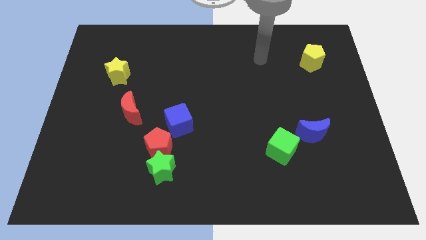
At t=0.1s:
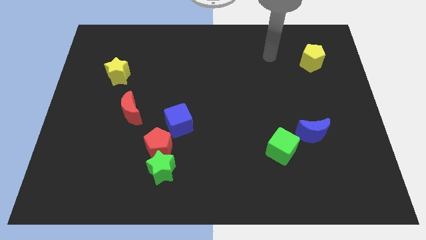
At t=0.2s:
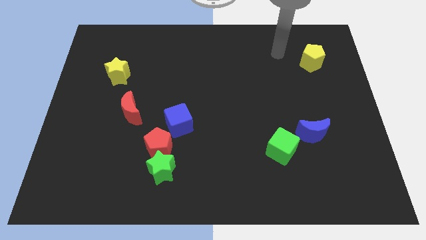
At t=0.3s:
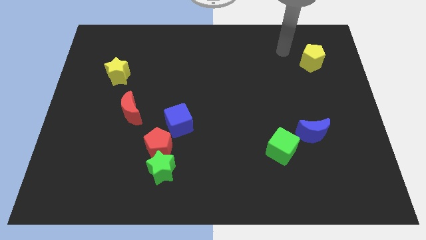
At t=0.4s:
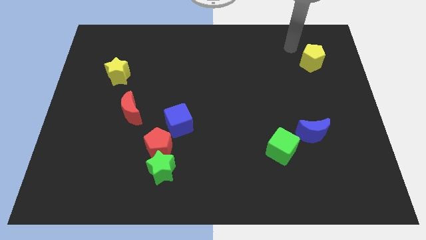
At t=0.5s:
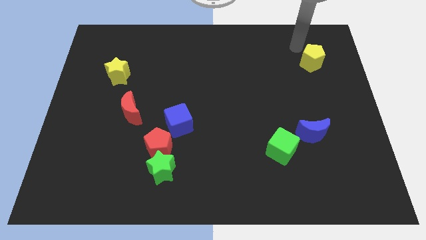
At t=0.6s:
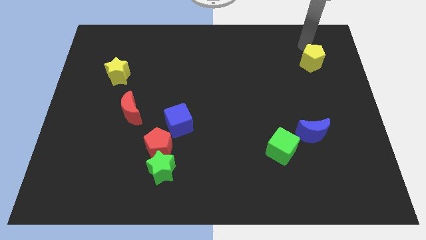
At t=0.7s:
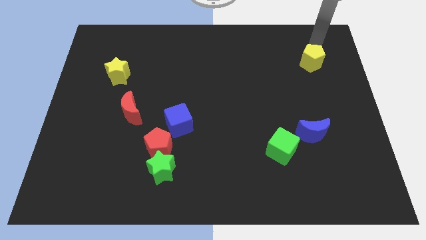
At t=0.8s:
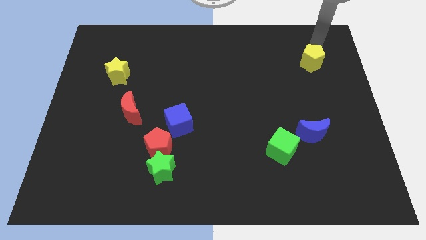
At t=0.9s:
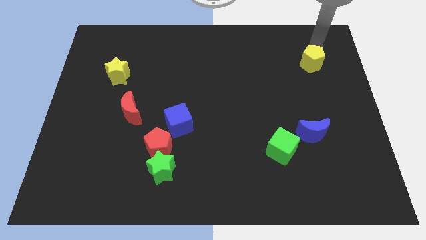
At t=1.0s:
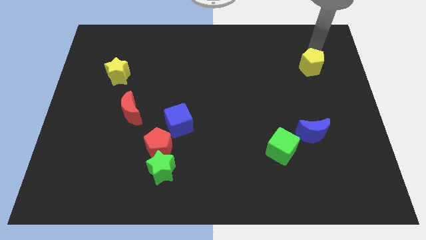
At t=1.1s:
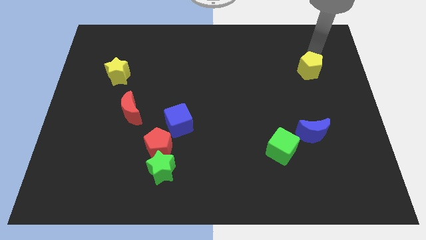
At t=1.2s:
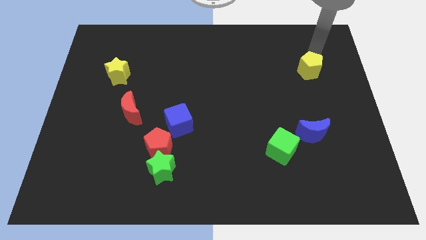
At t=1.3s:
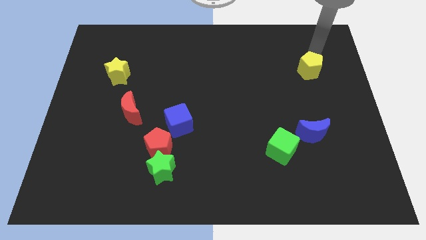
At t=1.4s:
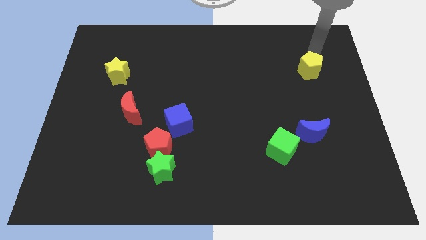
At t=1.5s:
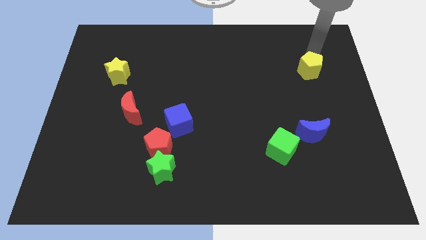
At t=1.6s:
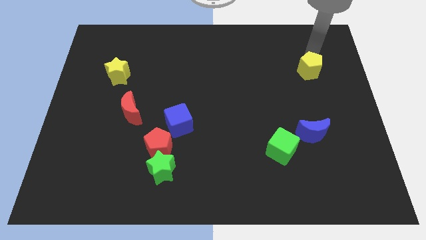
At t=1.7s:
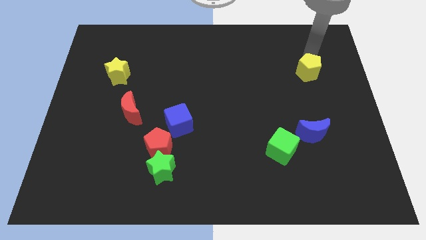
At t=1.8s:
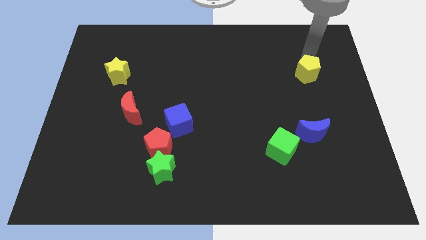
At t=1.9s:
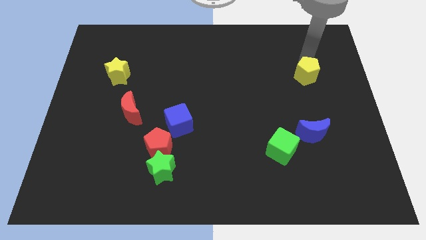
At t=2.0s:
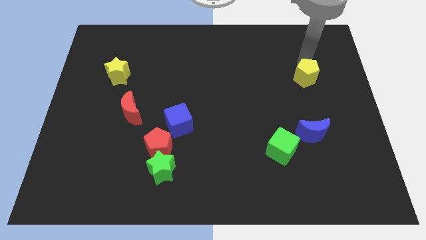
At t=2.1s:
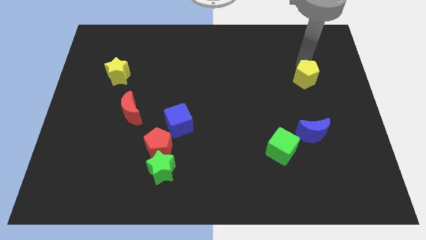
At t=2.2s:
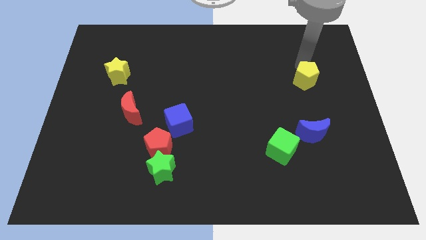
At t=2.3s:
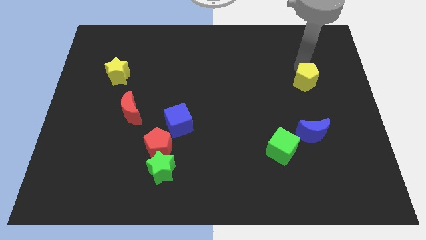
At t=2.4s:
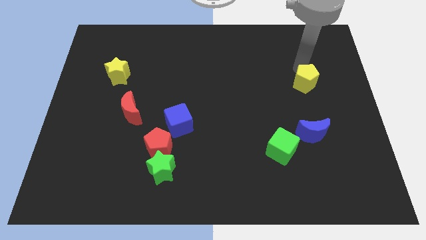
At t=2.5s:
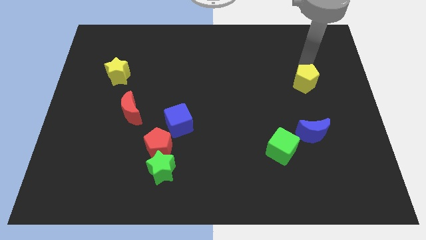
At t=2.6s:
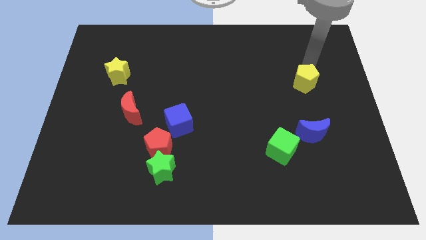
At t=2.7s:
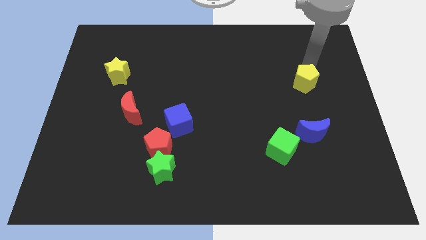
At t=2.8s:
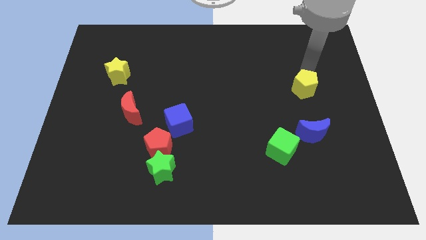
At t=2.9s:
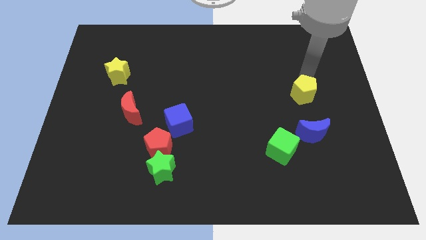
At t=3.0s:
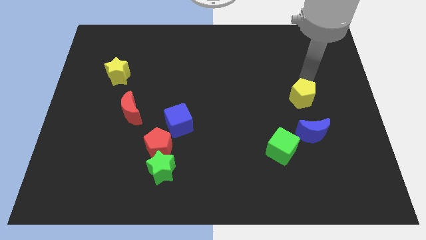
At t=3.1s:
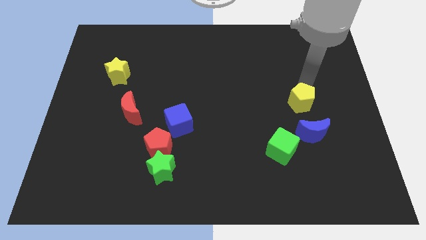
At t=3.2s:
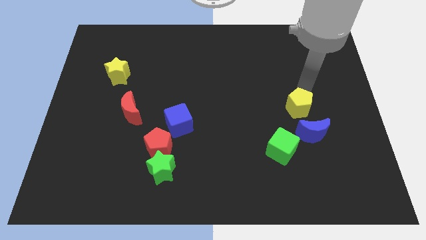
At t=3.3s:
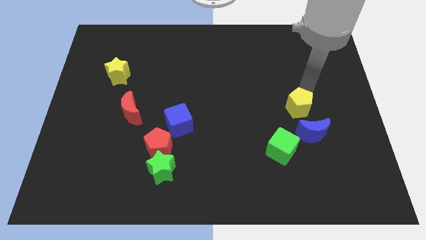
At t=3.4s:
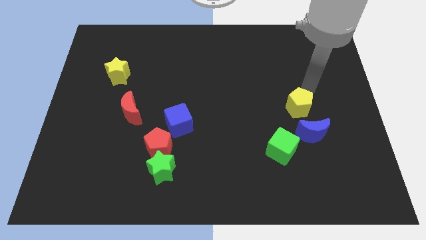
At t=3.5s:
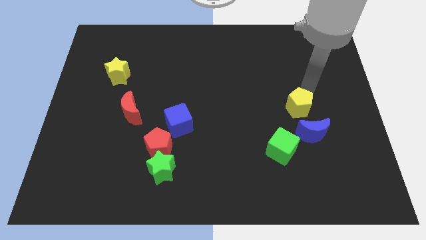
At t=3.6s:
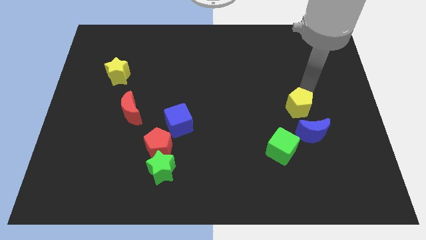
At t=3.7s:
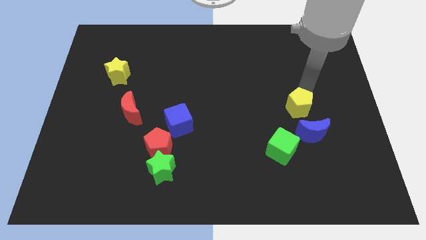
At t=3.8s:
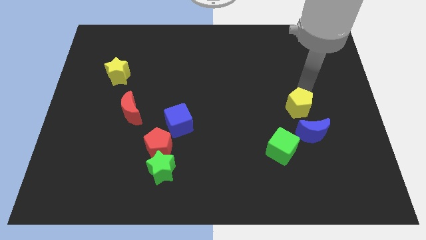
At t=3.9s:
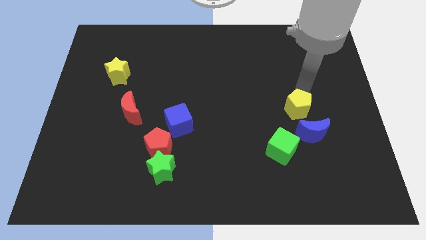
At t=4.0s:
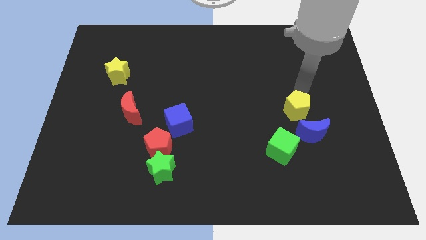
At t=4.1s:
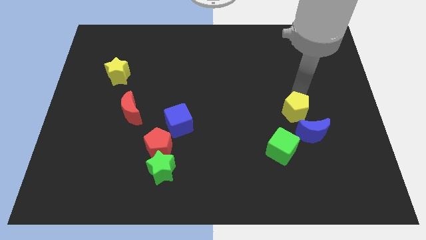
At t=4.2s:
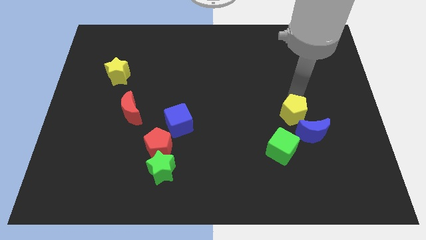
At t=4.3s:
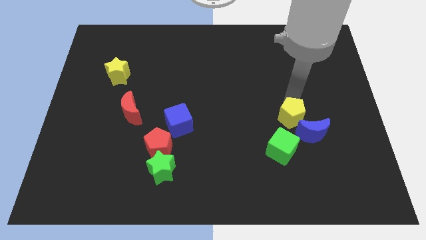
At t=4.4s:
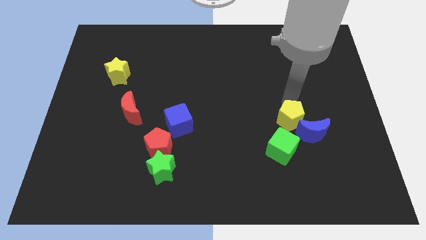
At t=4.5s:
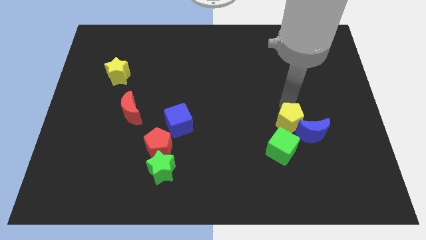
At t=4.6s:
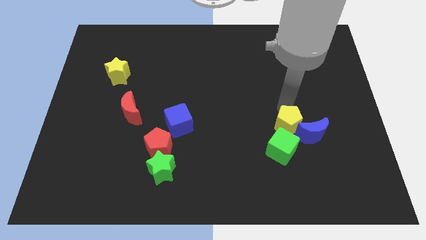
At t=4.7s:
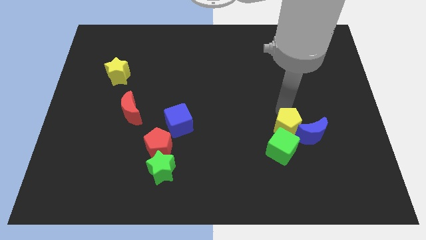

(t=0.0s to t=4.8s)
push the yellow pentagon next to the green cube

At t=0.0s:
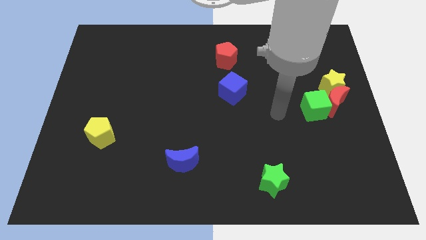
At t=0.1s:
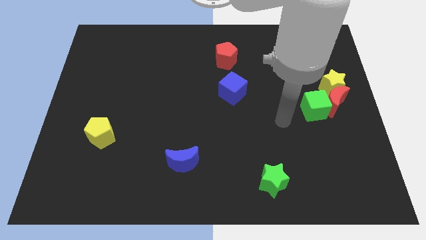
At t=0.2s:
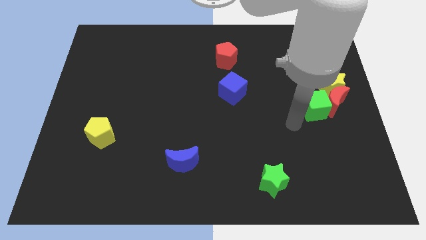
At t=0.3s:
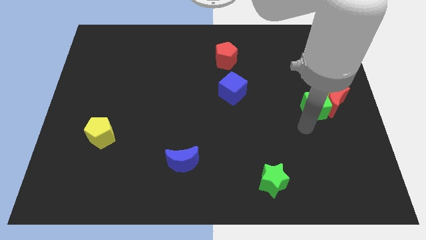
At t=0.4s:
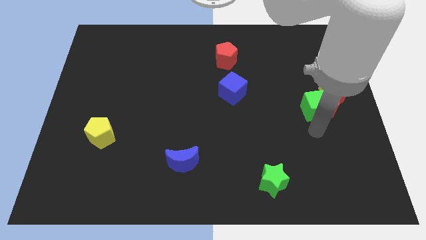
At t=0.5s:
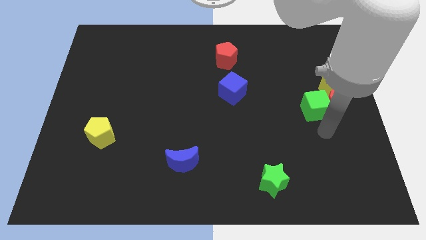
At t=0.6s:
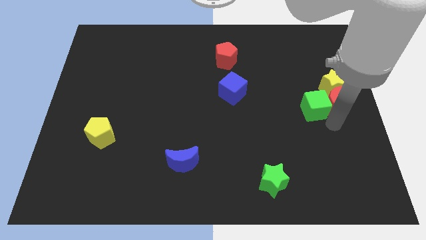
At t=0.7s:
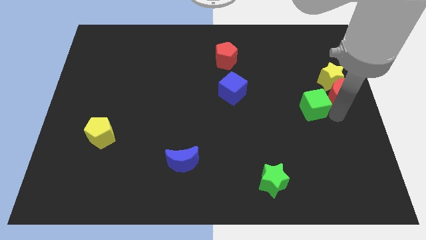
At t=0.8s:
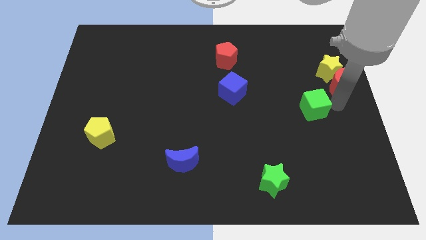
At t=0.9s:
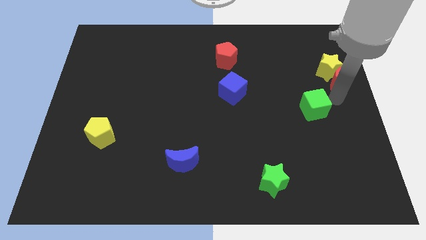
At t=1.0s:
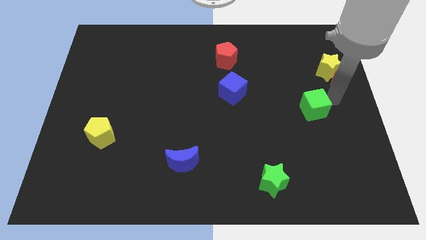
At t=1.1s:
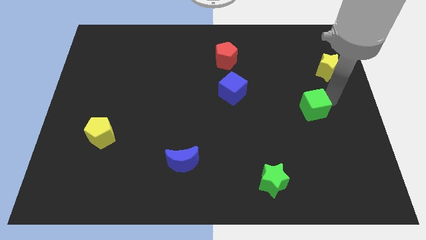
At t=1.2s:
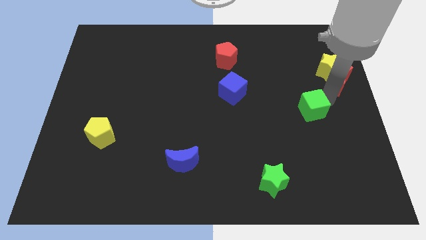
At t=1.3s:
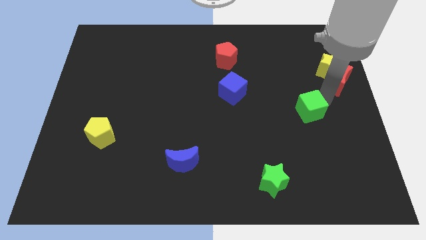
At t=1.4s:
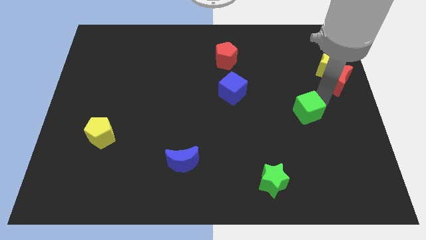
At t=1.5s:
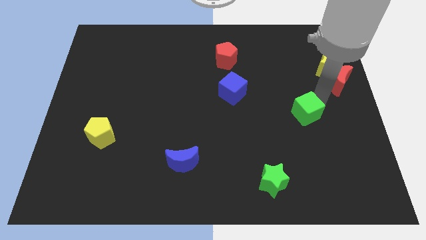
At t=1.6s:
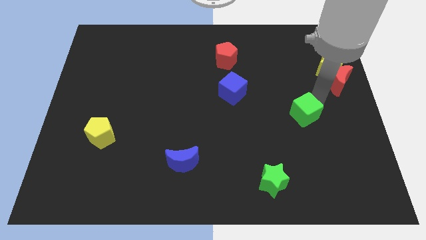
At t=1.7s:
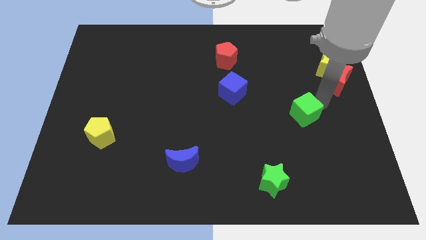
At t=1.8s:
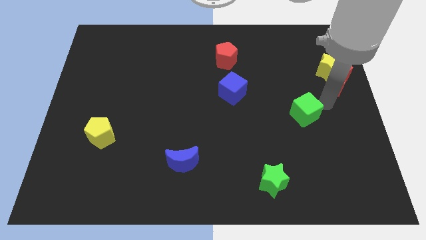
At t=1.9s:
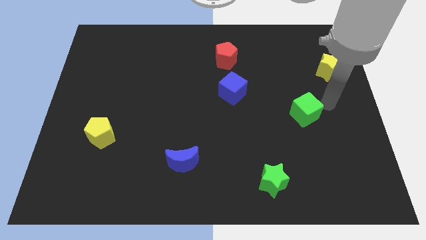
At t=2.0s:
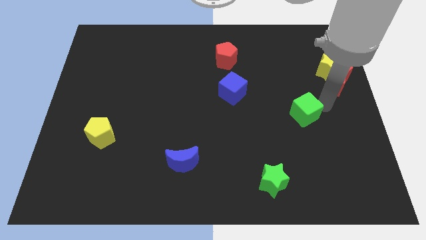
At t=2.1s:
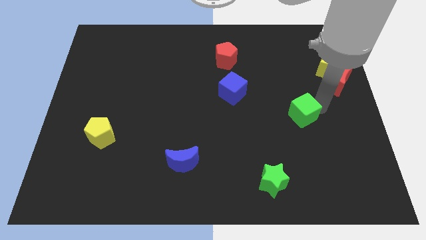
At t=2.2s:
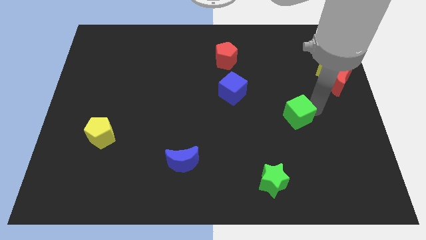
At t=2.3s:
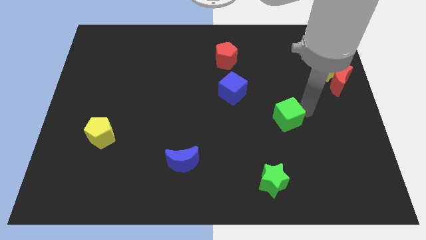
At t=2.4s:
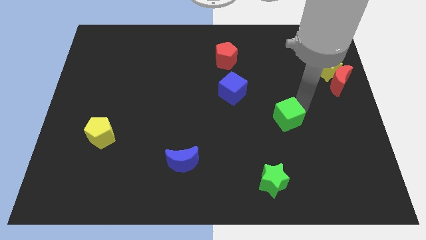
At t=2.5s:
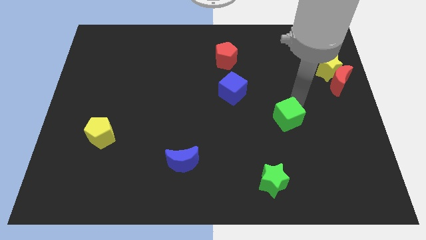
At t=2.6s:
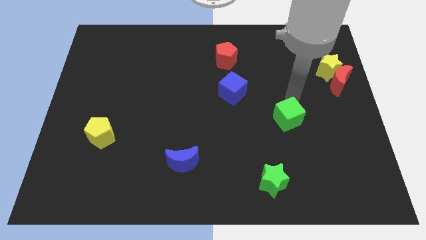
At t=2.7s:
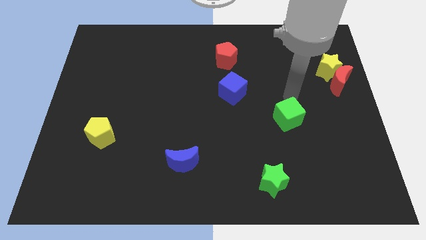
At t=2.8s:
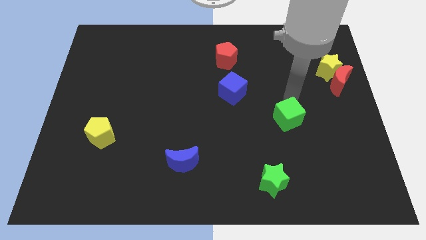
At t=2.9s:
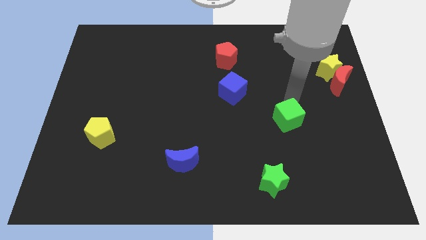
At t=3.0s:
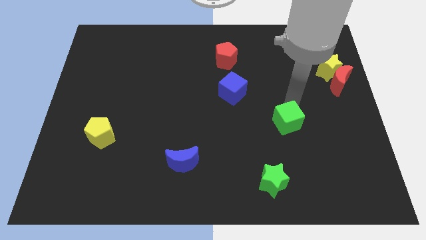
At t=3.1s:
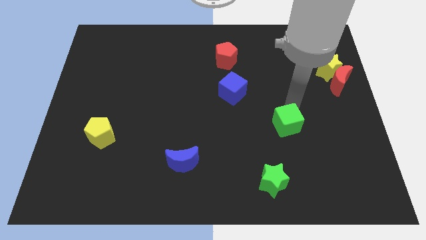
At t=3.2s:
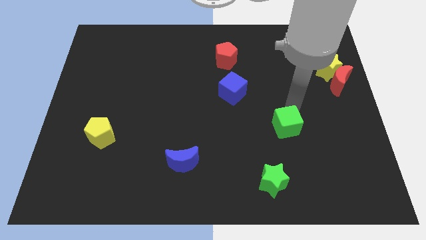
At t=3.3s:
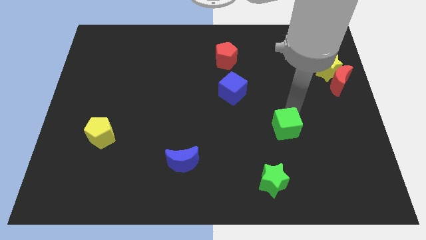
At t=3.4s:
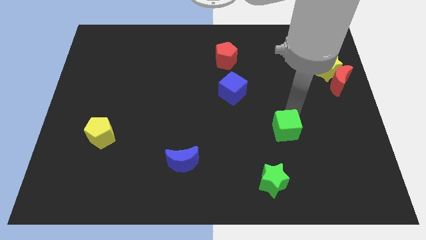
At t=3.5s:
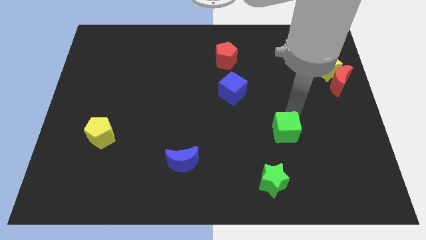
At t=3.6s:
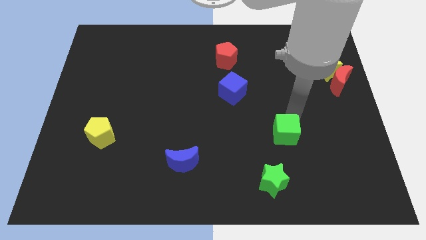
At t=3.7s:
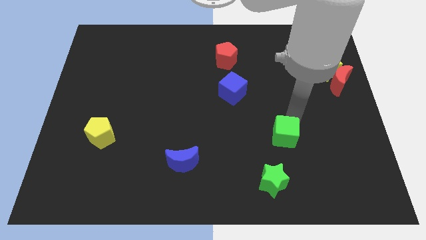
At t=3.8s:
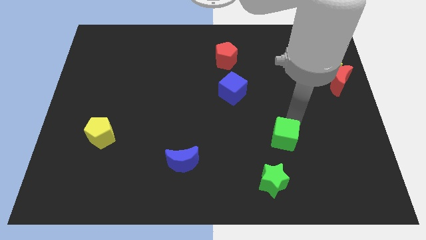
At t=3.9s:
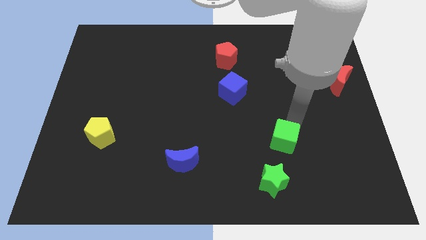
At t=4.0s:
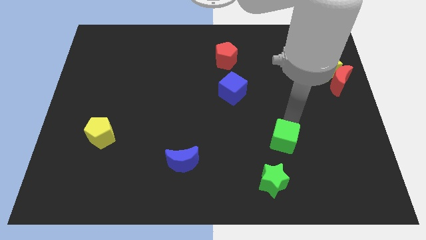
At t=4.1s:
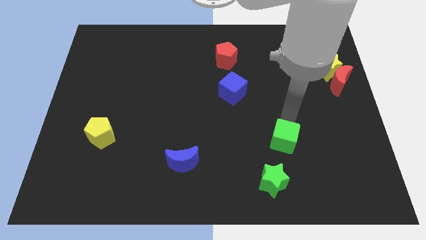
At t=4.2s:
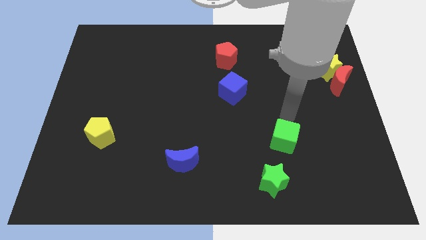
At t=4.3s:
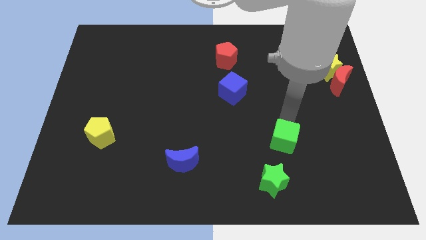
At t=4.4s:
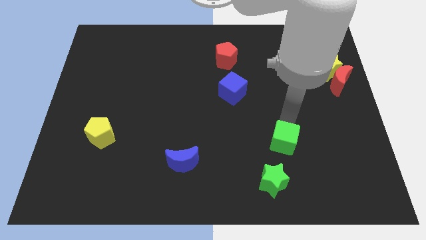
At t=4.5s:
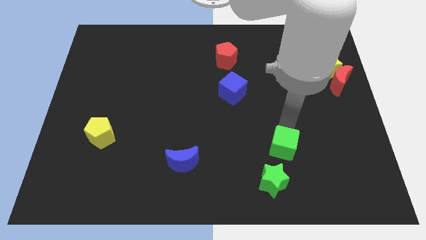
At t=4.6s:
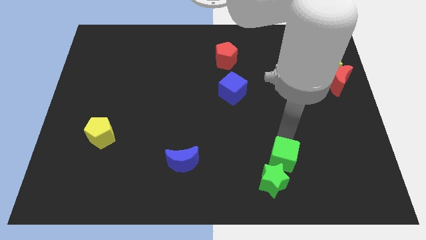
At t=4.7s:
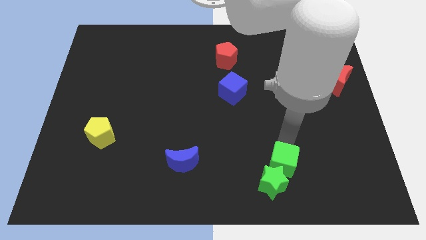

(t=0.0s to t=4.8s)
push the green cube towards the green star
